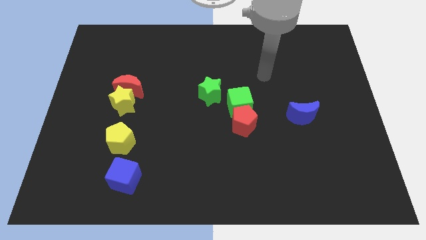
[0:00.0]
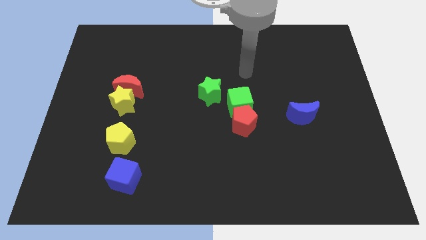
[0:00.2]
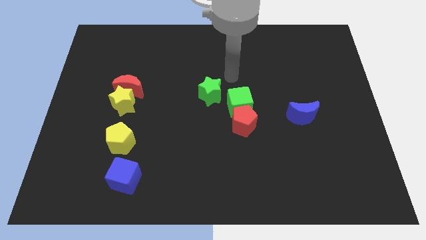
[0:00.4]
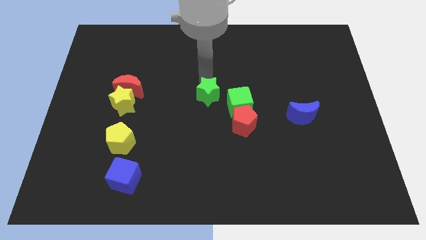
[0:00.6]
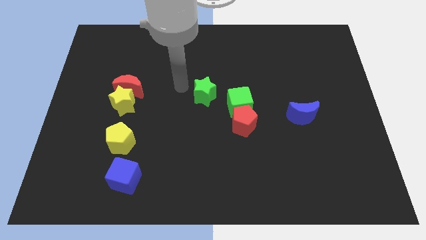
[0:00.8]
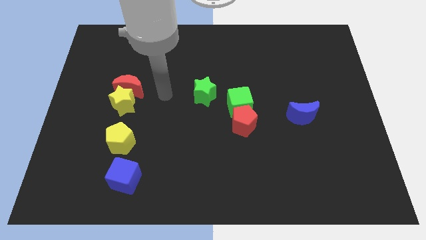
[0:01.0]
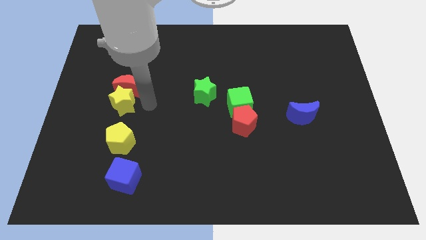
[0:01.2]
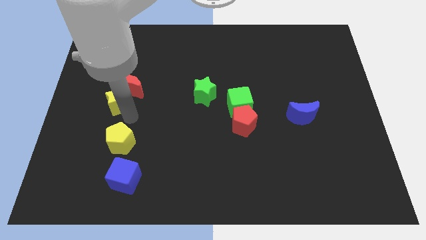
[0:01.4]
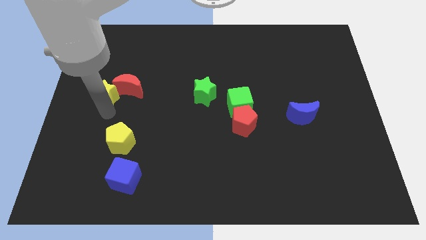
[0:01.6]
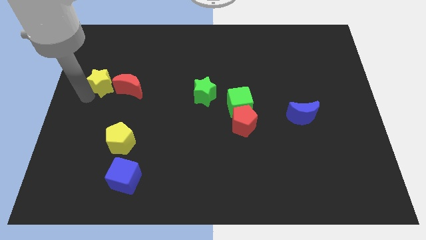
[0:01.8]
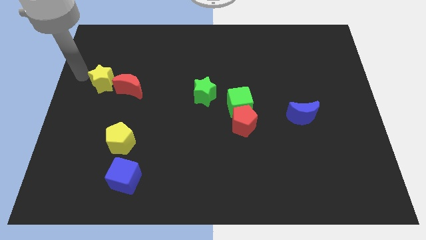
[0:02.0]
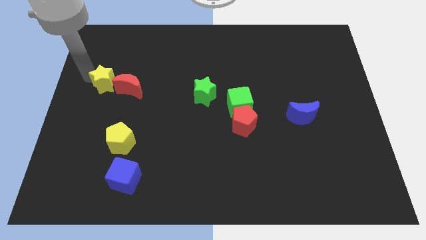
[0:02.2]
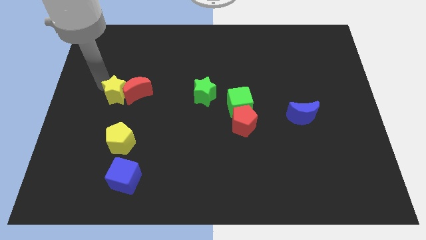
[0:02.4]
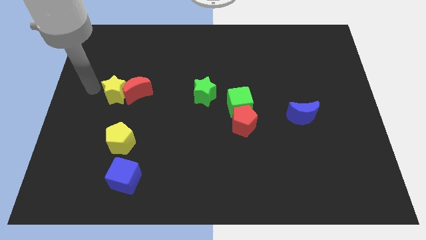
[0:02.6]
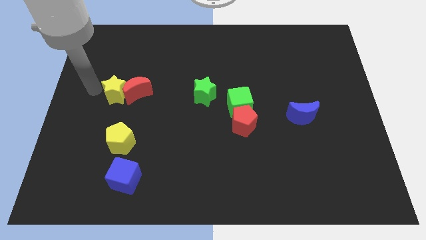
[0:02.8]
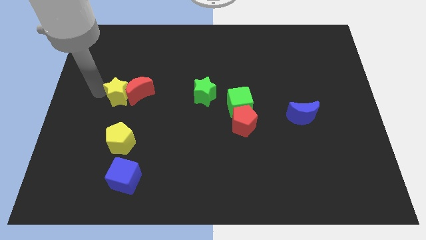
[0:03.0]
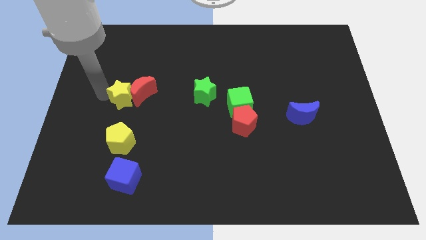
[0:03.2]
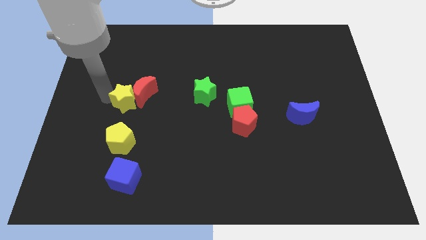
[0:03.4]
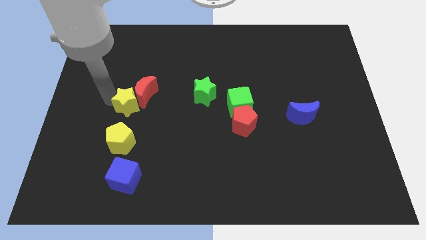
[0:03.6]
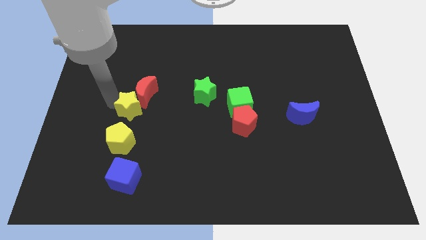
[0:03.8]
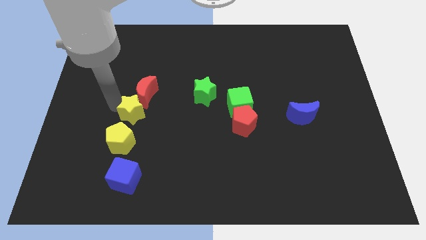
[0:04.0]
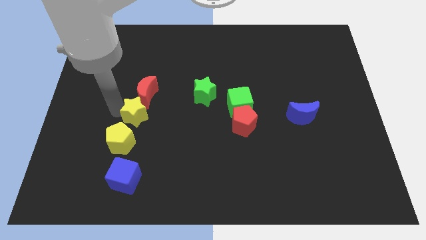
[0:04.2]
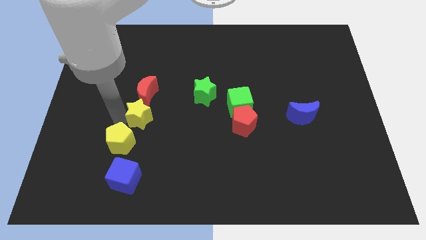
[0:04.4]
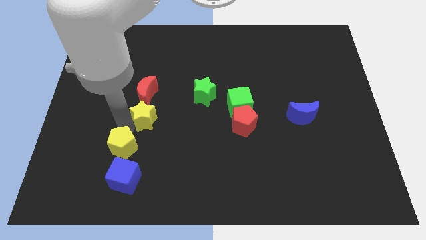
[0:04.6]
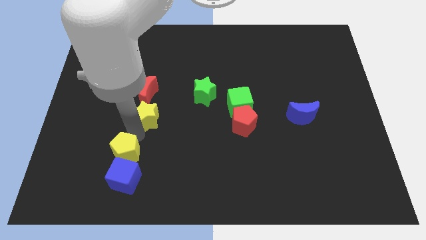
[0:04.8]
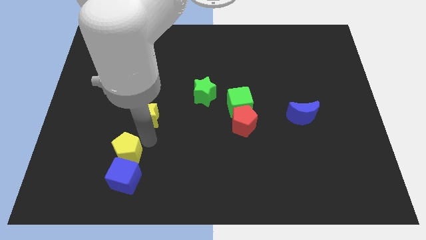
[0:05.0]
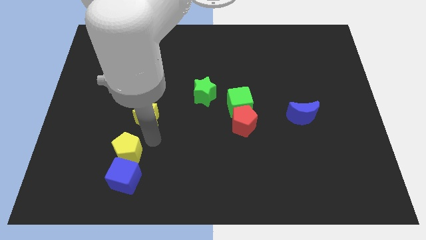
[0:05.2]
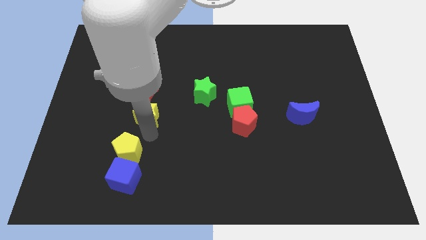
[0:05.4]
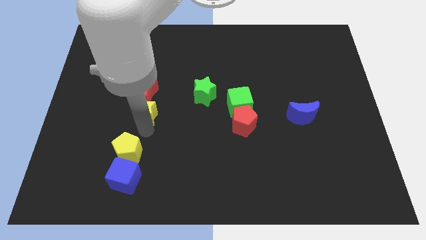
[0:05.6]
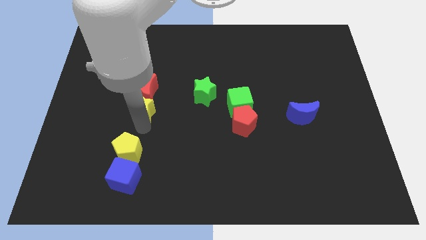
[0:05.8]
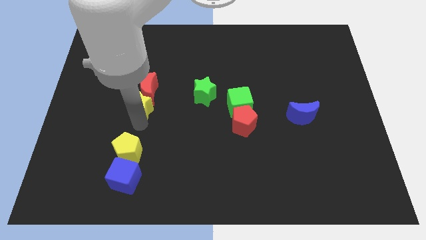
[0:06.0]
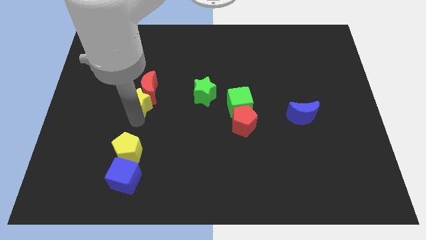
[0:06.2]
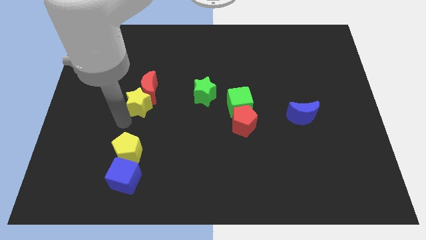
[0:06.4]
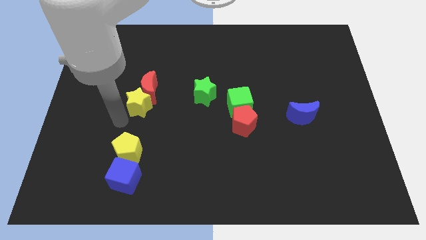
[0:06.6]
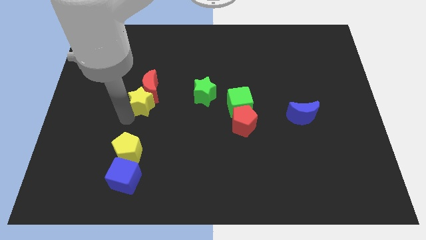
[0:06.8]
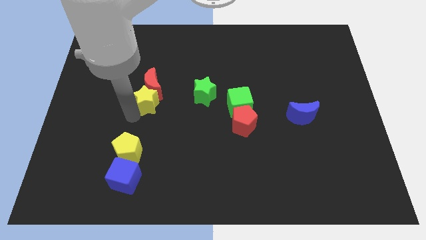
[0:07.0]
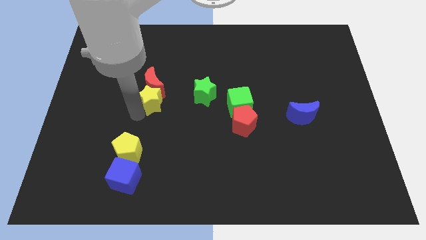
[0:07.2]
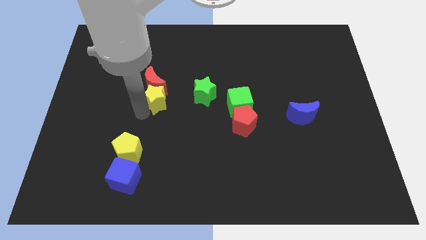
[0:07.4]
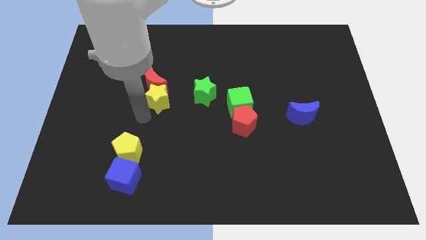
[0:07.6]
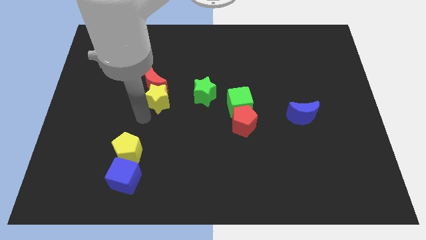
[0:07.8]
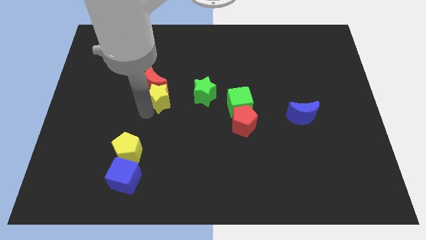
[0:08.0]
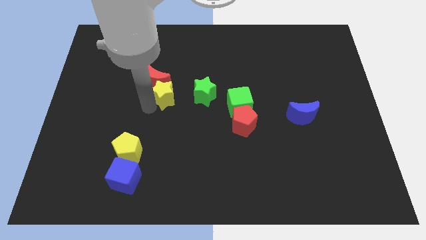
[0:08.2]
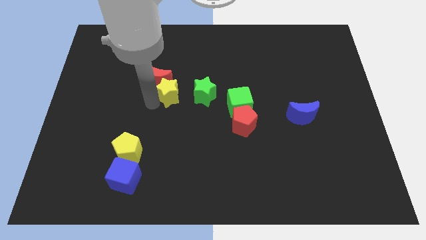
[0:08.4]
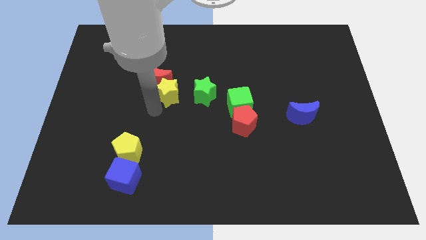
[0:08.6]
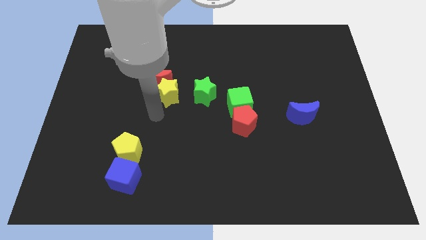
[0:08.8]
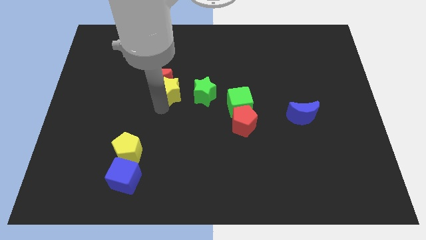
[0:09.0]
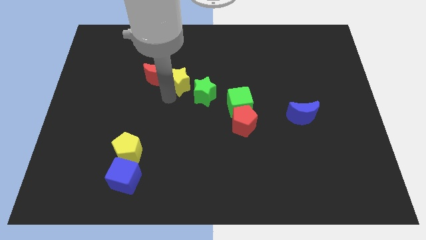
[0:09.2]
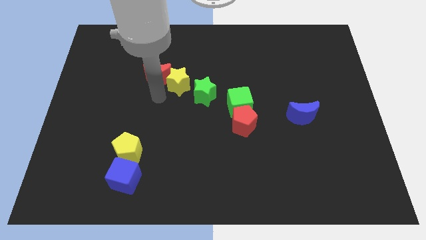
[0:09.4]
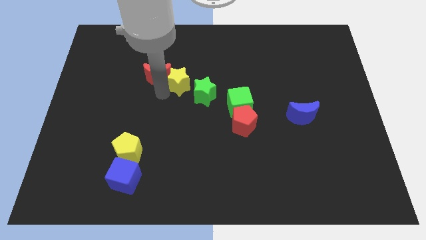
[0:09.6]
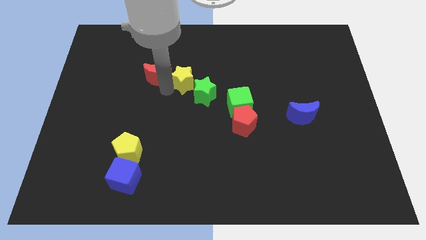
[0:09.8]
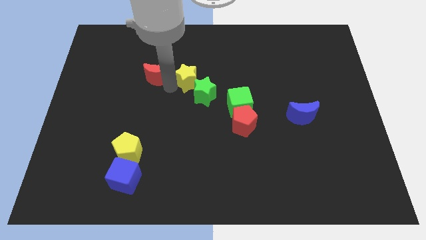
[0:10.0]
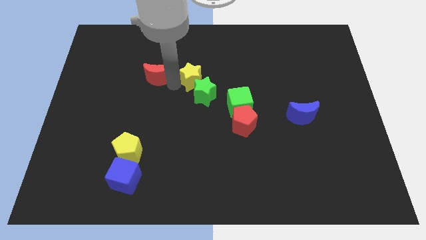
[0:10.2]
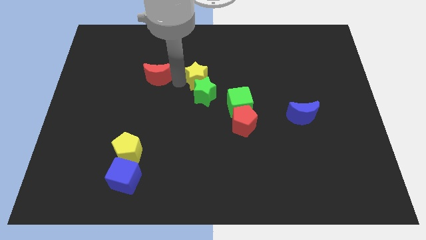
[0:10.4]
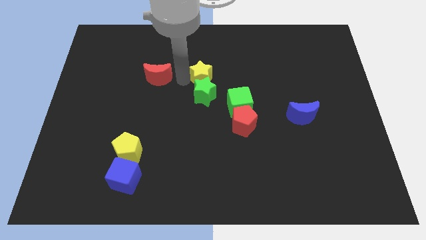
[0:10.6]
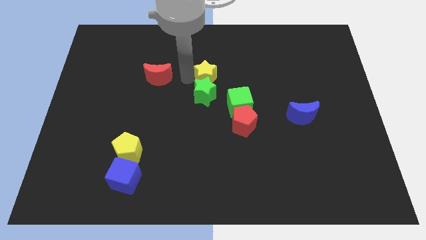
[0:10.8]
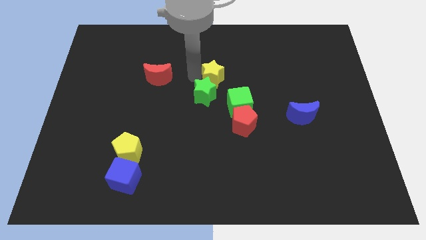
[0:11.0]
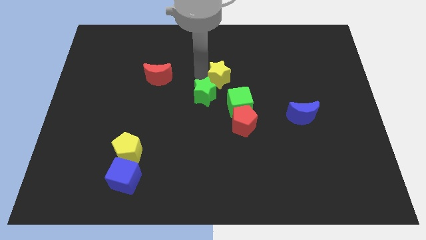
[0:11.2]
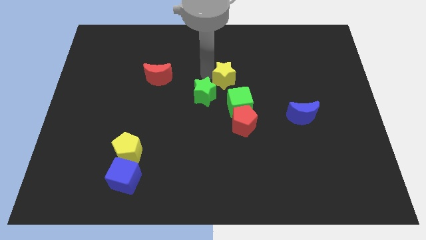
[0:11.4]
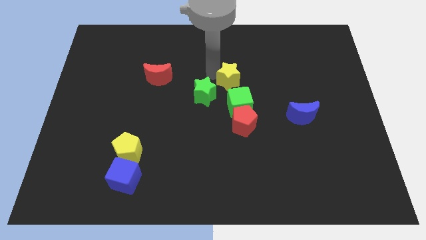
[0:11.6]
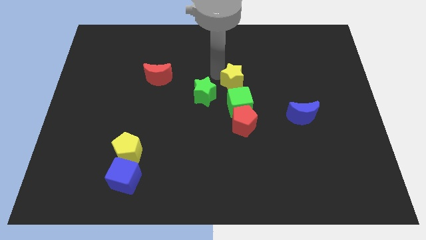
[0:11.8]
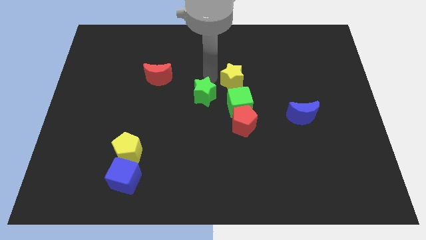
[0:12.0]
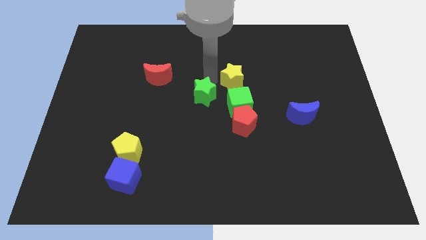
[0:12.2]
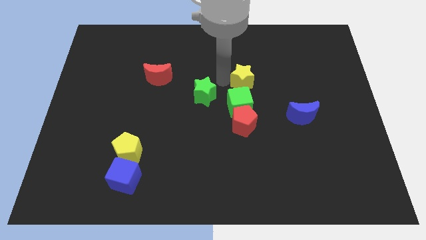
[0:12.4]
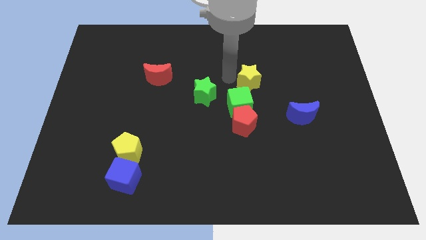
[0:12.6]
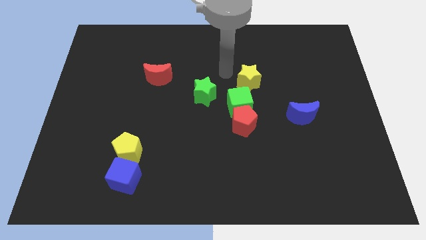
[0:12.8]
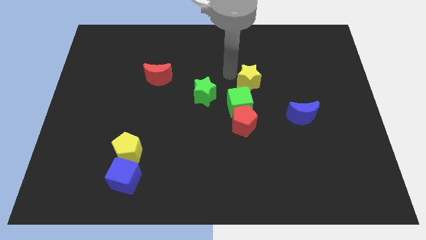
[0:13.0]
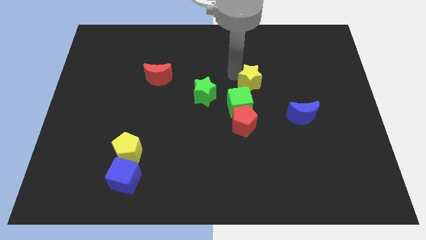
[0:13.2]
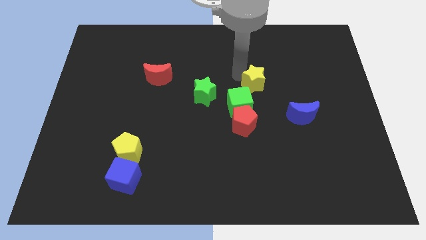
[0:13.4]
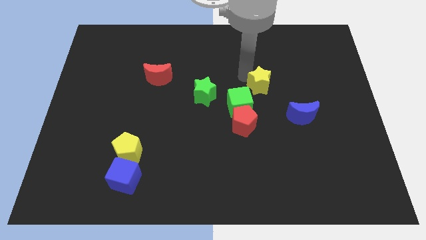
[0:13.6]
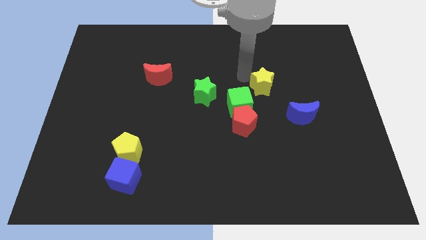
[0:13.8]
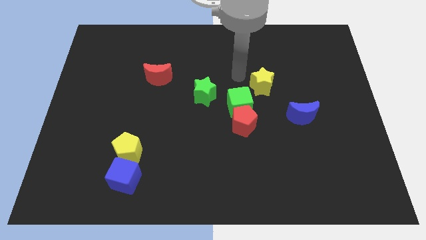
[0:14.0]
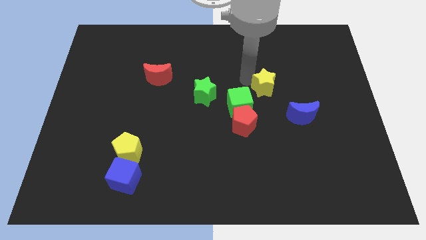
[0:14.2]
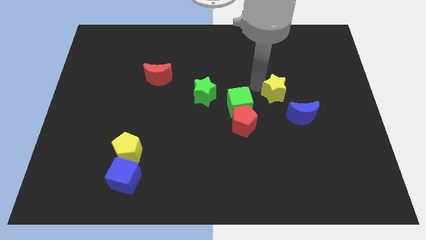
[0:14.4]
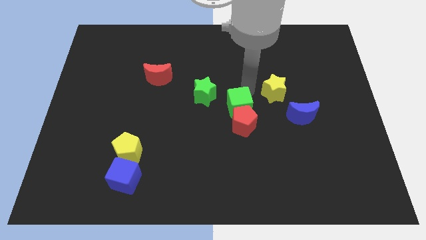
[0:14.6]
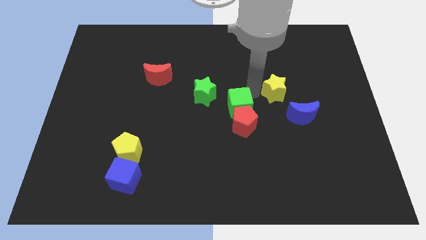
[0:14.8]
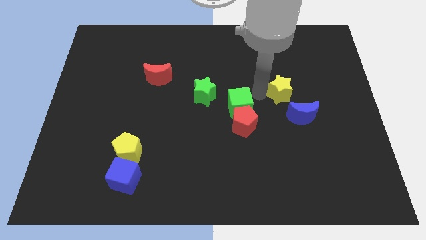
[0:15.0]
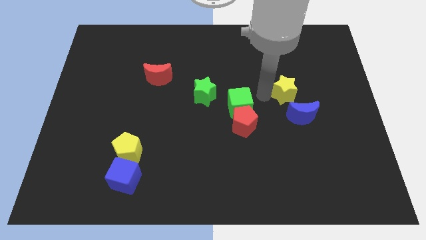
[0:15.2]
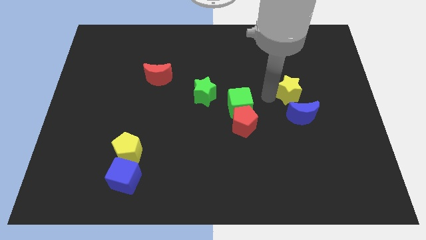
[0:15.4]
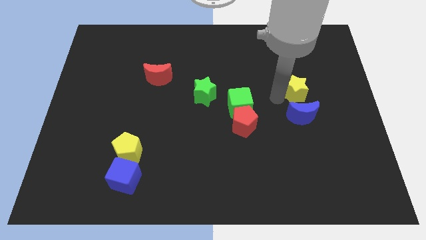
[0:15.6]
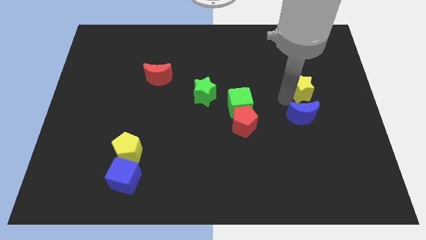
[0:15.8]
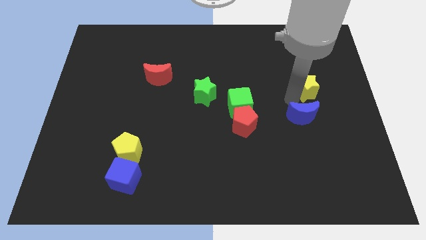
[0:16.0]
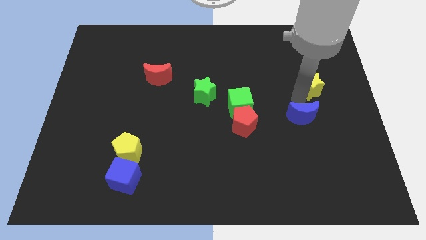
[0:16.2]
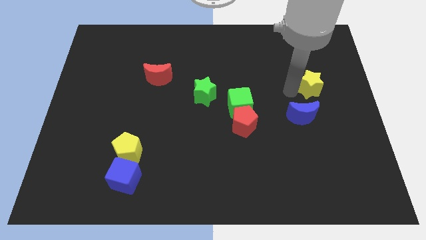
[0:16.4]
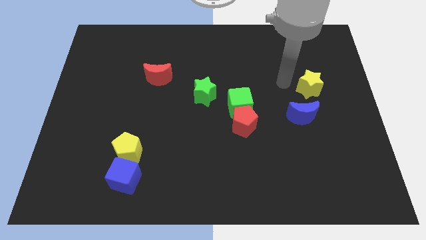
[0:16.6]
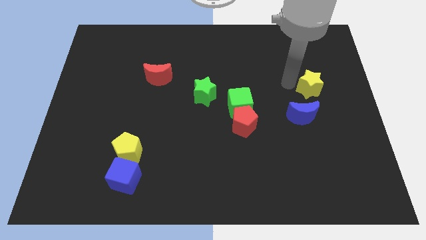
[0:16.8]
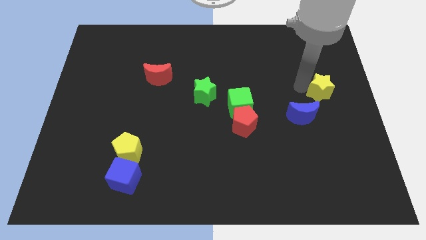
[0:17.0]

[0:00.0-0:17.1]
push the yellow star to the right side of the board
